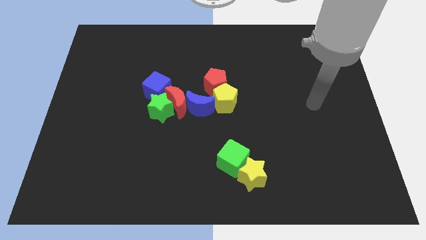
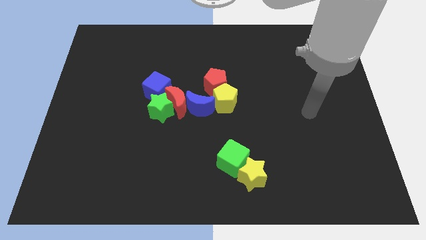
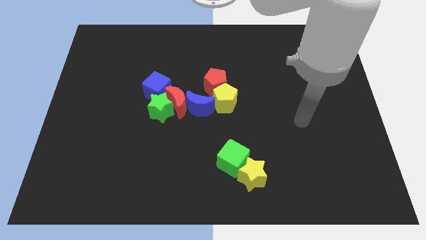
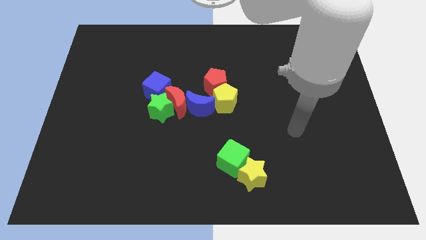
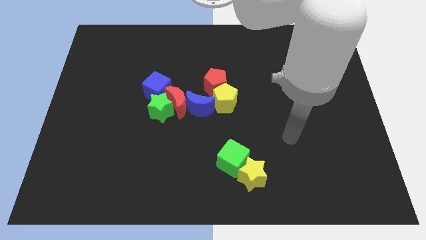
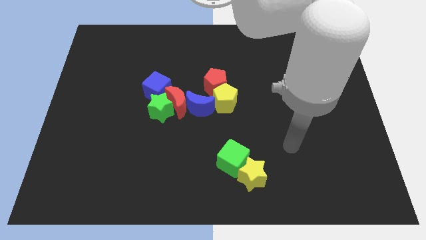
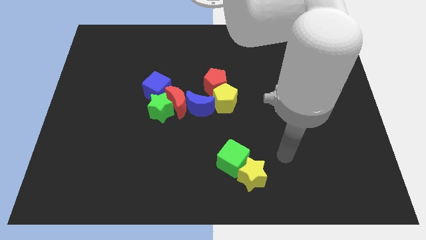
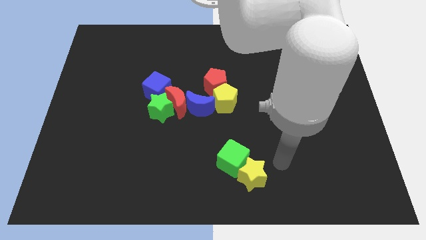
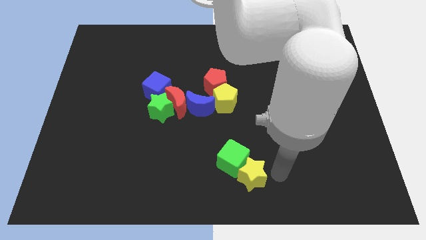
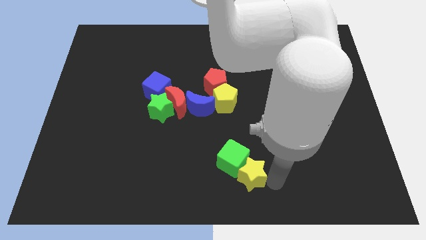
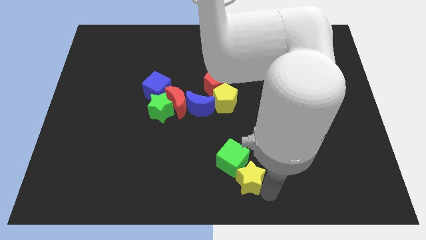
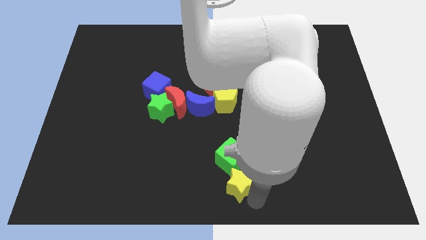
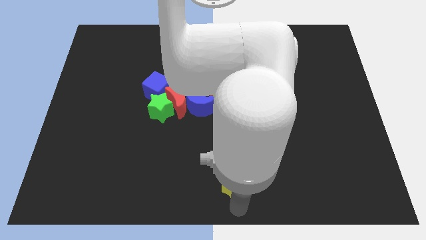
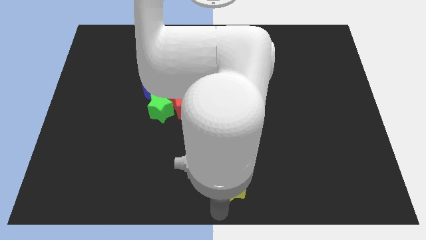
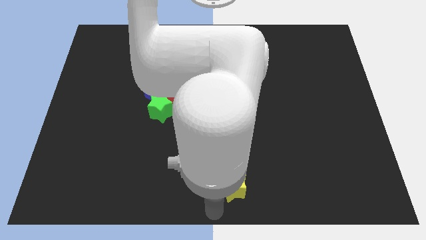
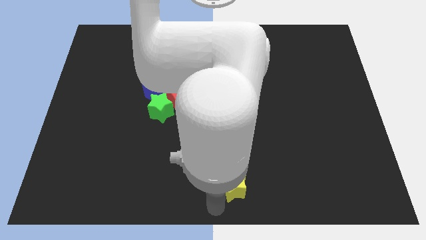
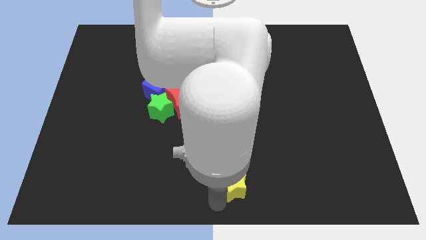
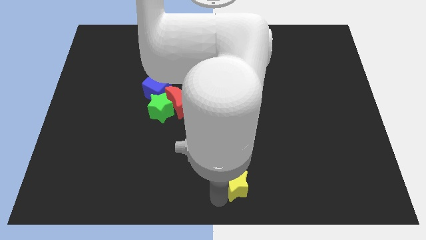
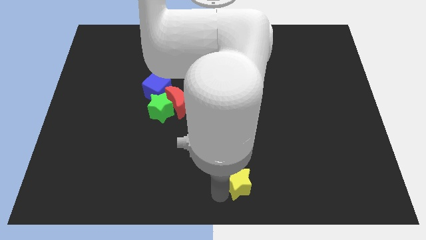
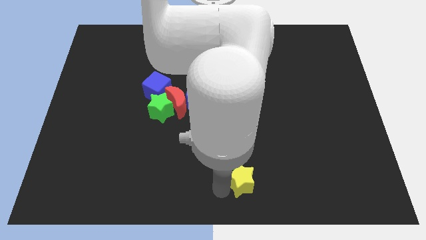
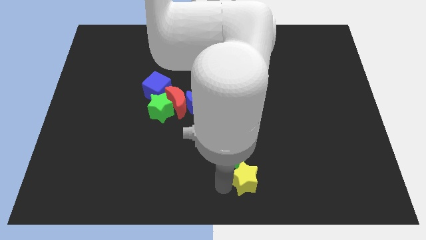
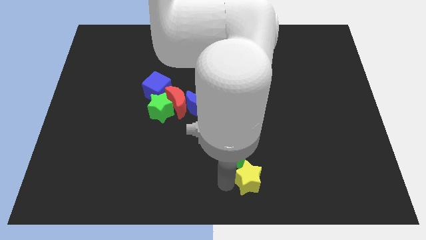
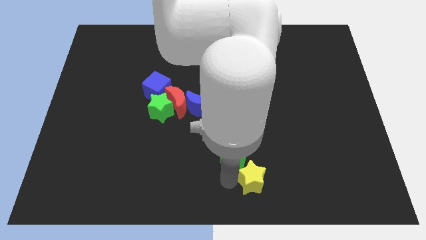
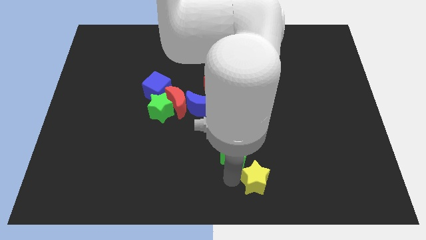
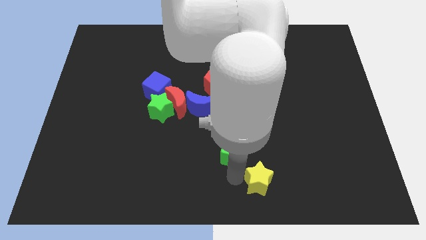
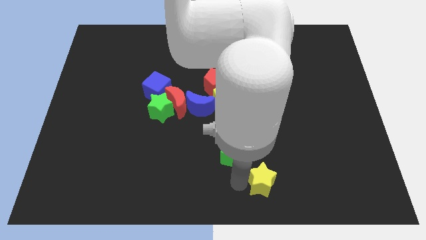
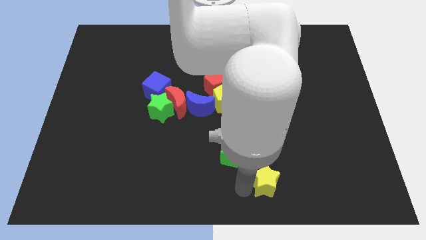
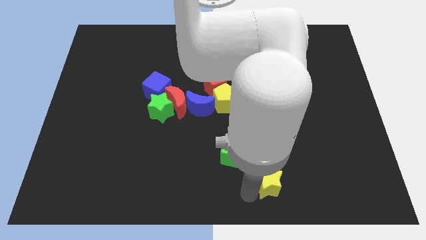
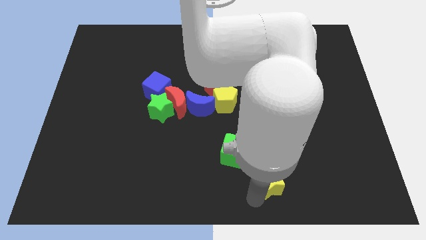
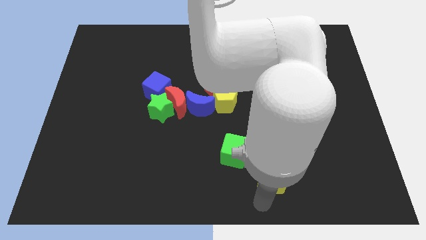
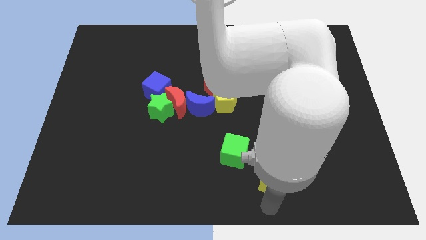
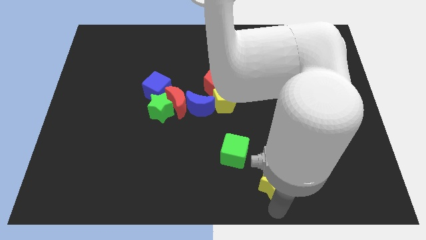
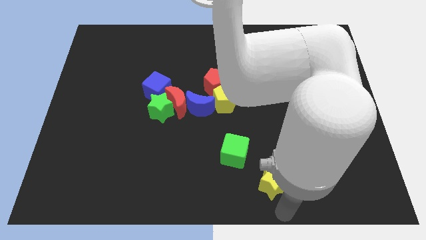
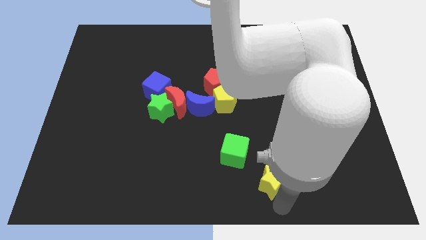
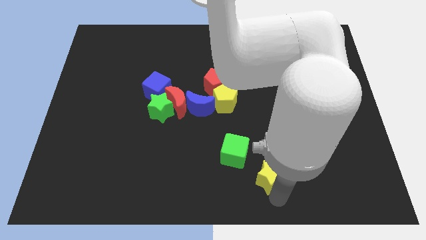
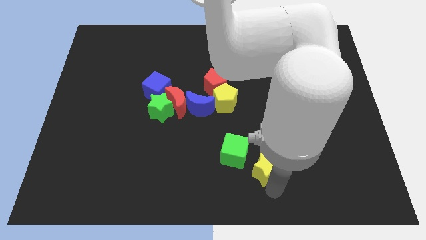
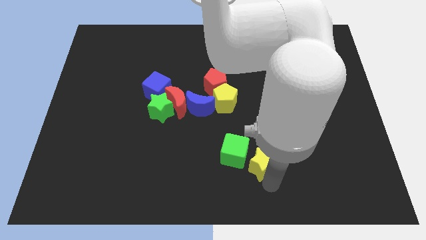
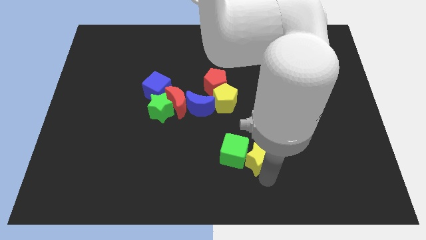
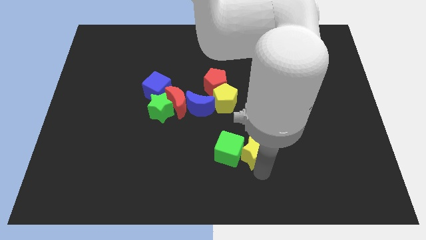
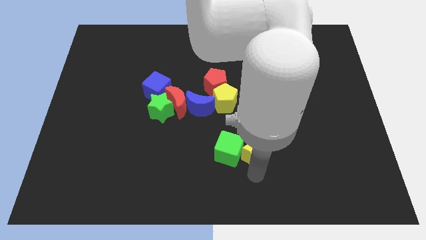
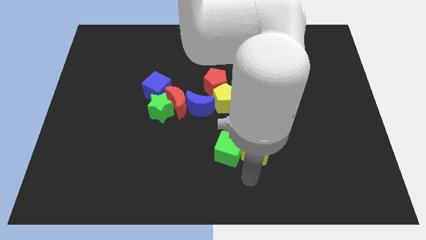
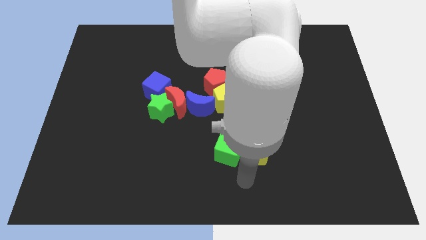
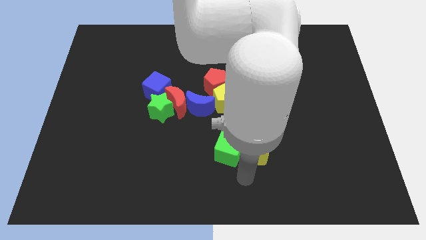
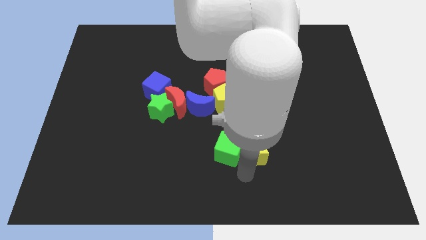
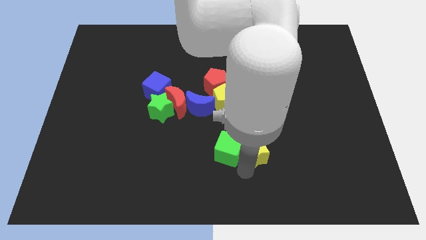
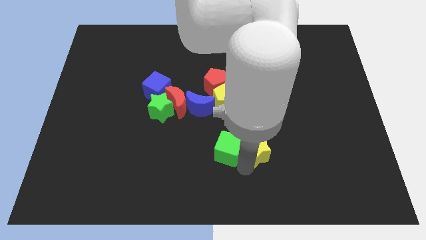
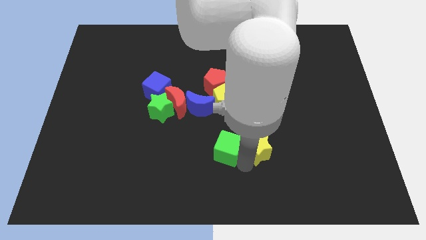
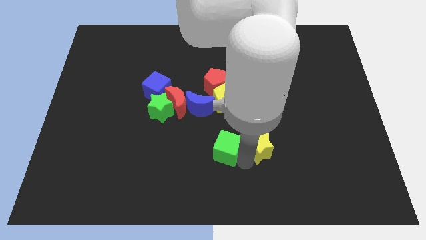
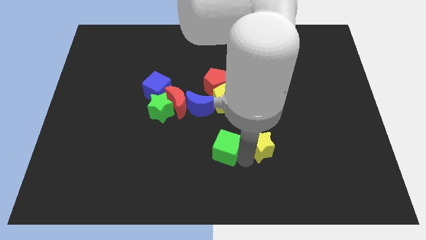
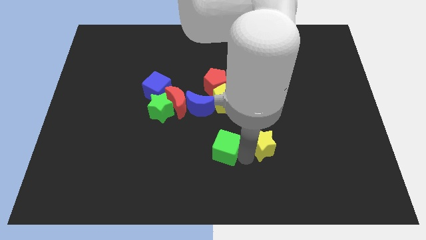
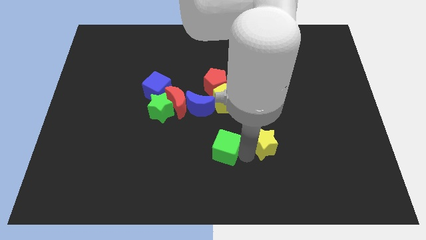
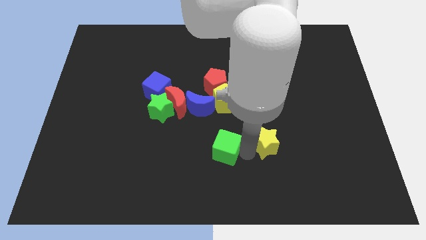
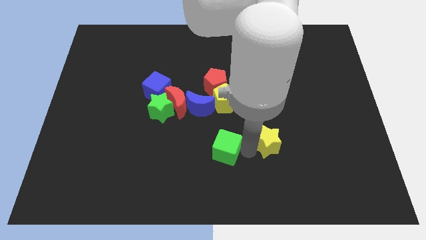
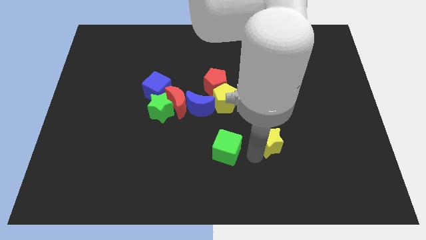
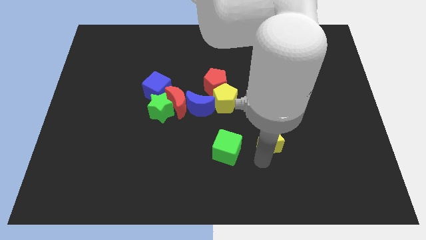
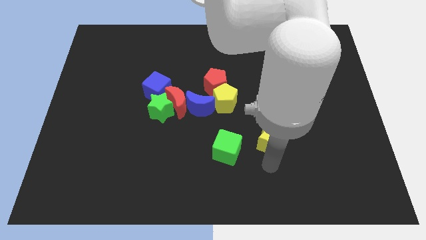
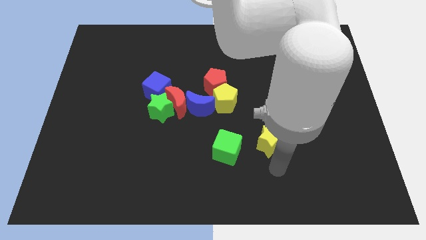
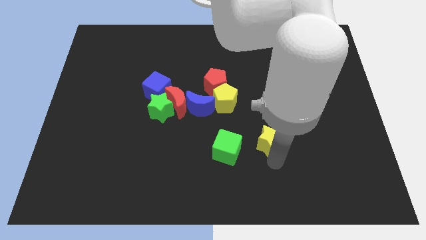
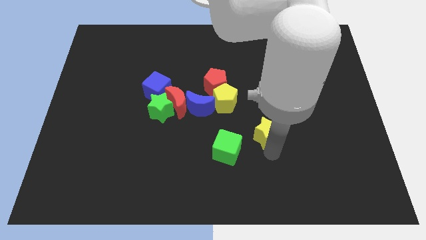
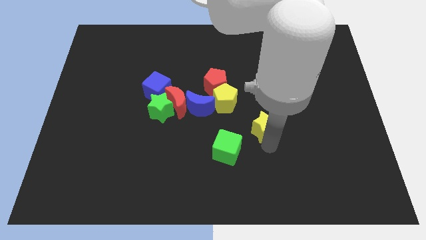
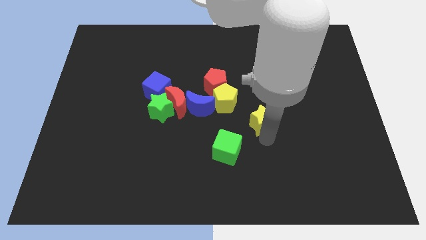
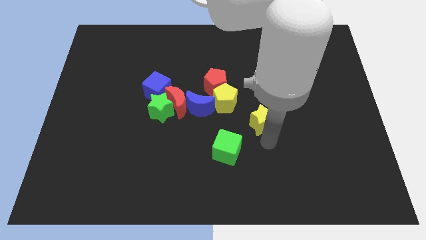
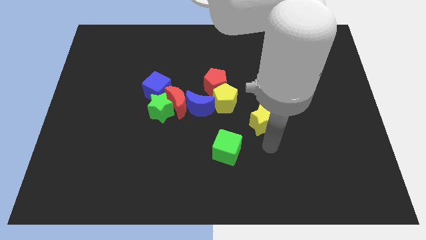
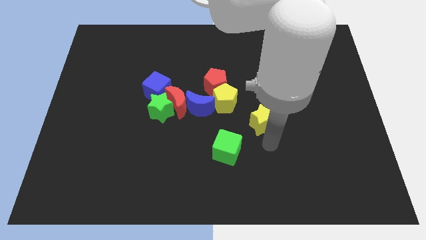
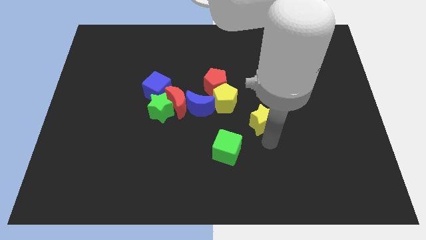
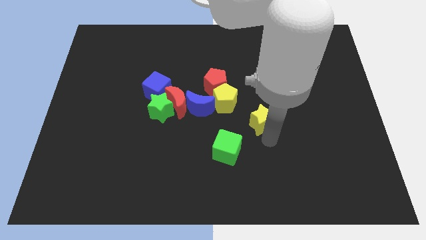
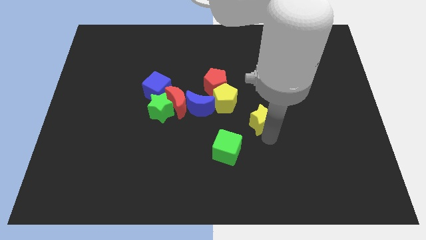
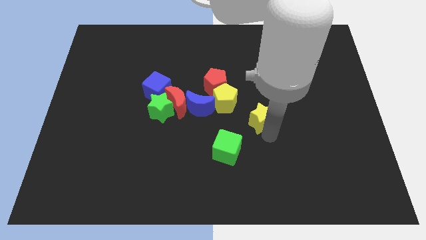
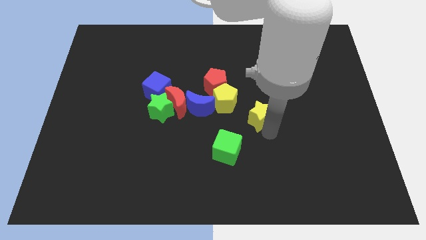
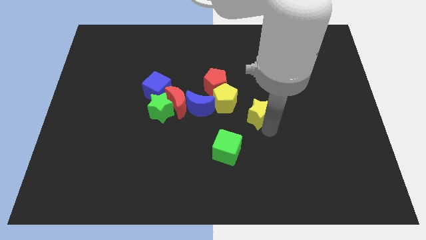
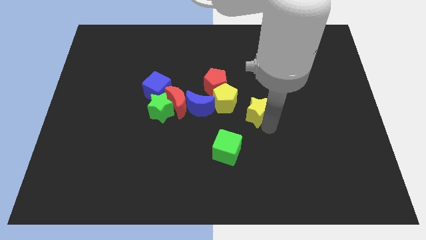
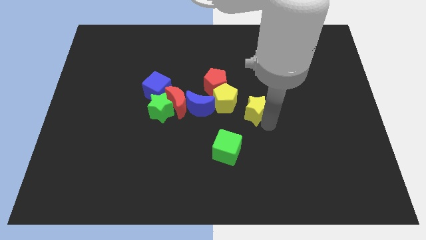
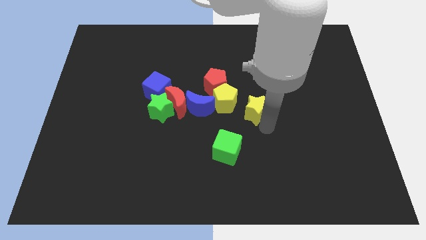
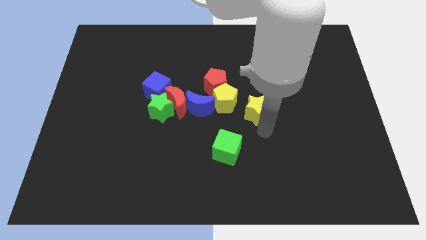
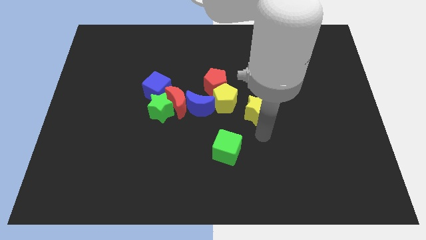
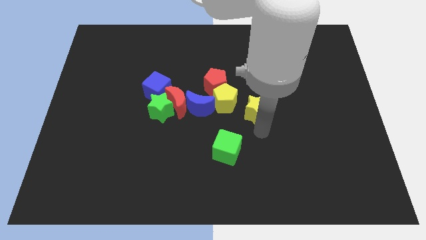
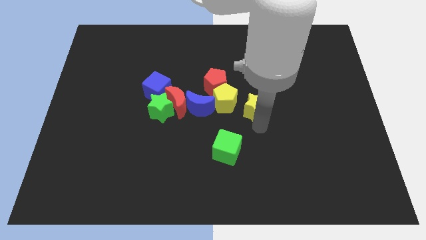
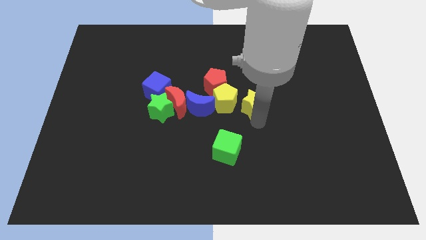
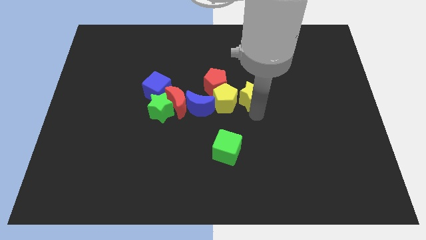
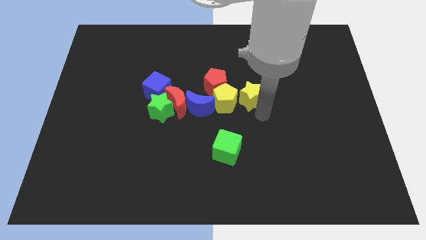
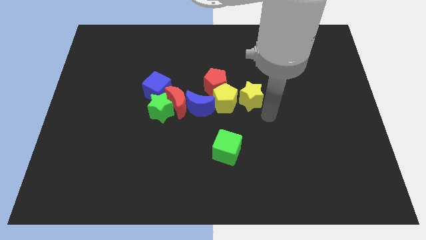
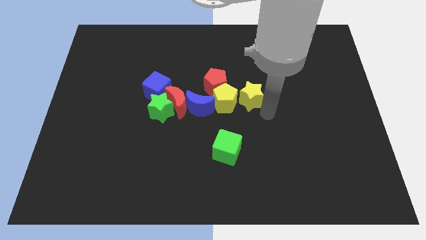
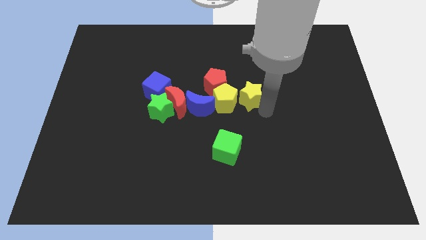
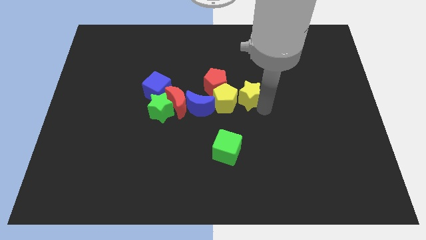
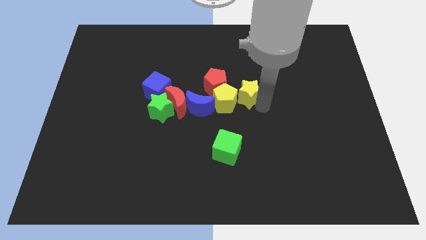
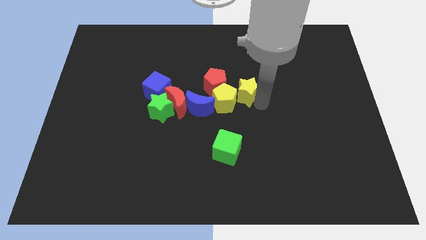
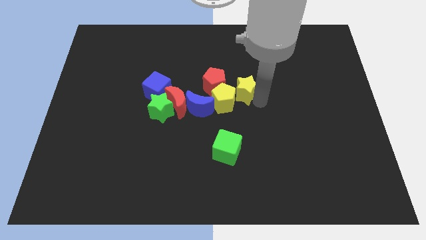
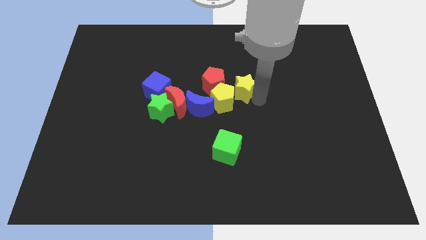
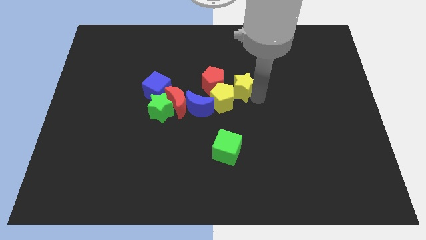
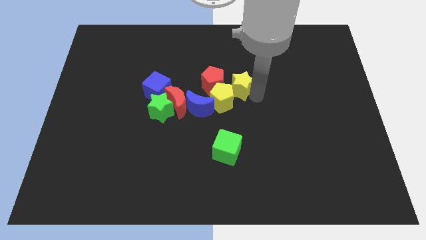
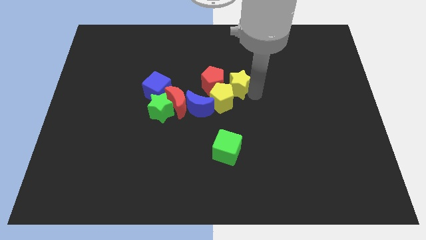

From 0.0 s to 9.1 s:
push the yellow star close to the red pentagon
